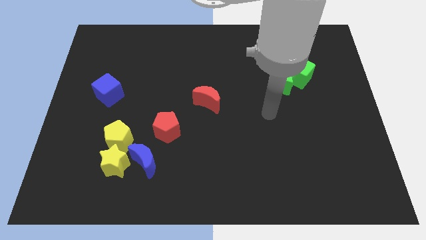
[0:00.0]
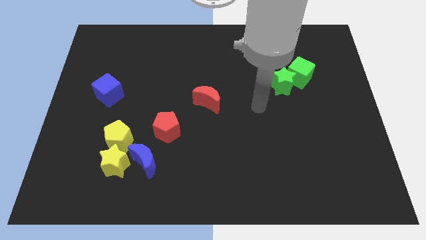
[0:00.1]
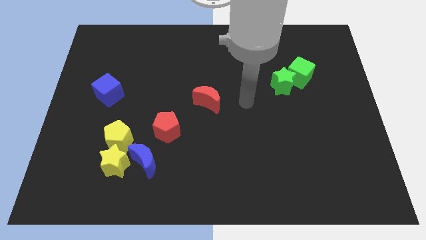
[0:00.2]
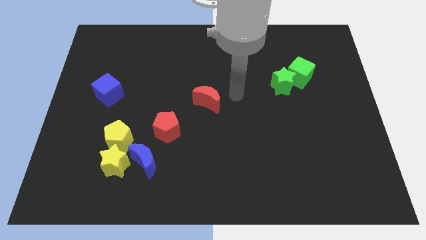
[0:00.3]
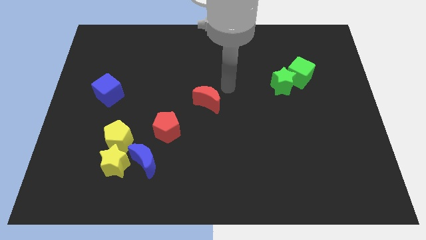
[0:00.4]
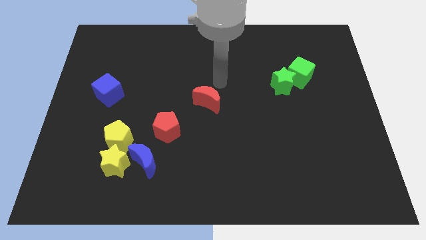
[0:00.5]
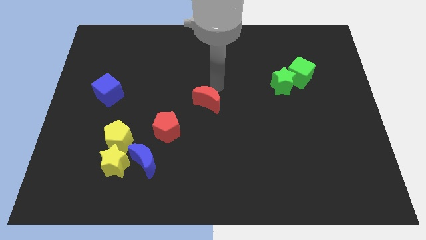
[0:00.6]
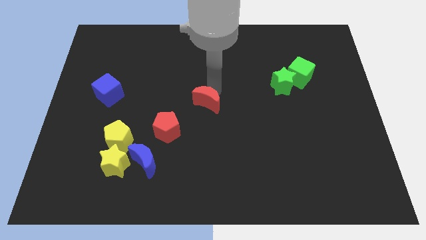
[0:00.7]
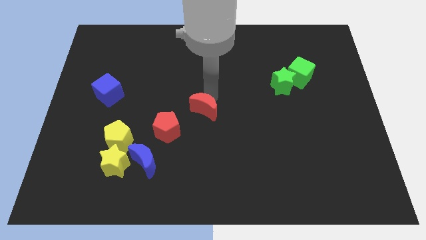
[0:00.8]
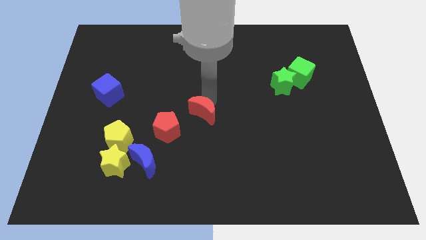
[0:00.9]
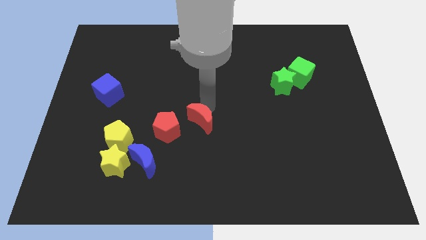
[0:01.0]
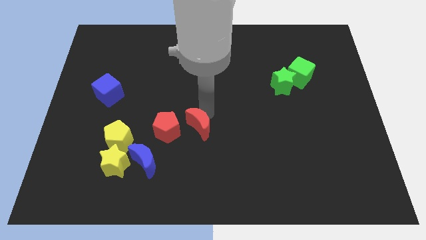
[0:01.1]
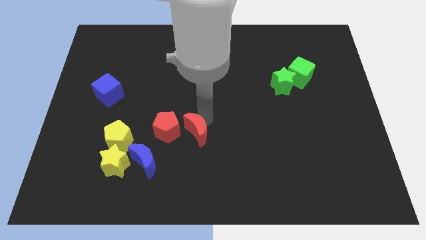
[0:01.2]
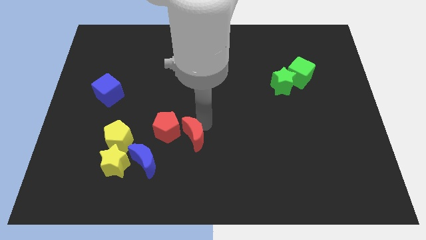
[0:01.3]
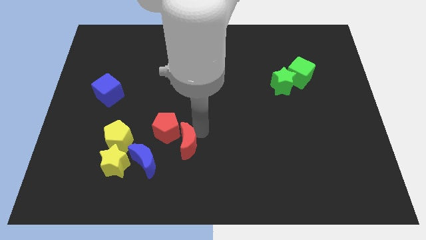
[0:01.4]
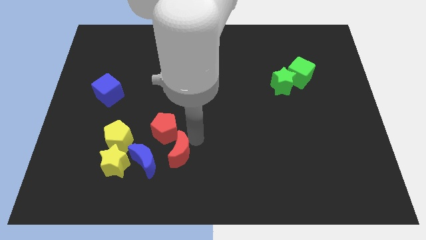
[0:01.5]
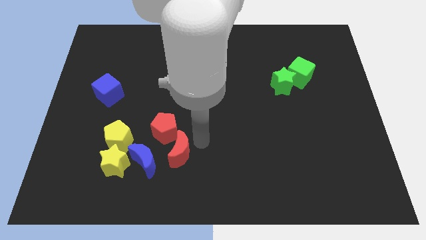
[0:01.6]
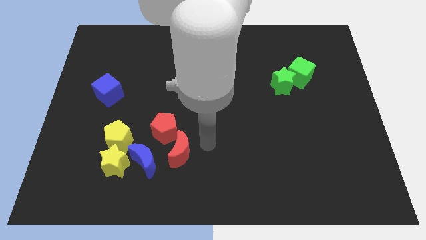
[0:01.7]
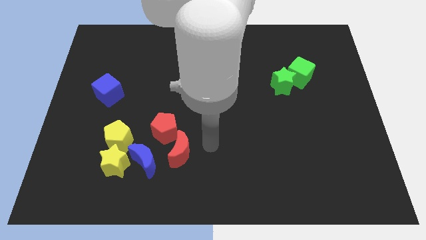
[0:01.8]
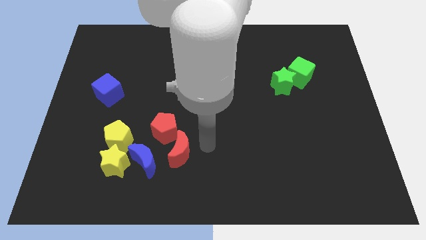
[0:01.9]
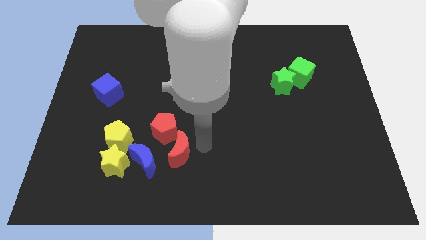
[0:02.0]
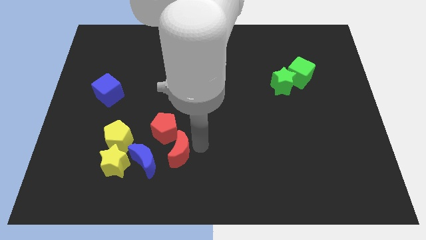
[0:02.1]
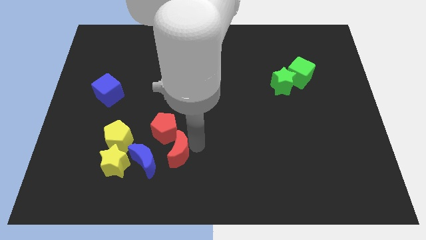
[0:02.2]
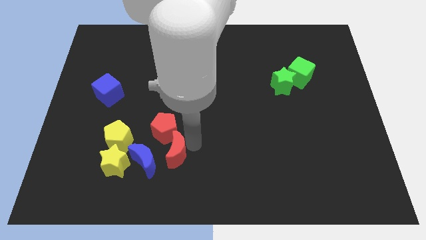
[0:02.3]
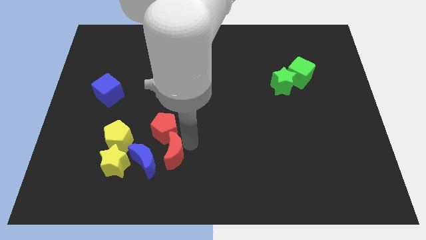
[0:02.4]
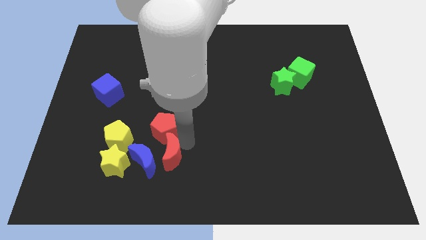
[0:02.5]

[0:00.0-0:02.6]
move the red moon close to the blue moon

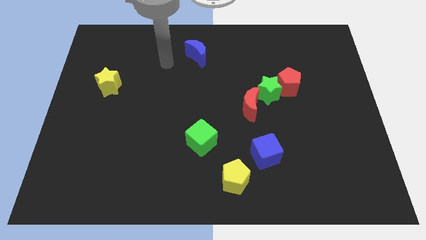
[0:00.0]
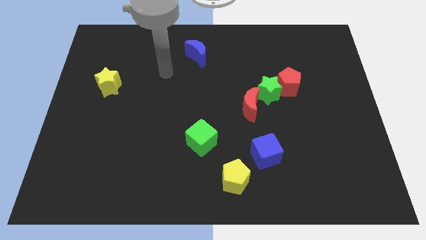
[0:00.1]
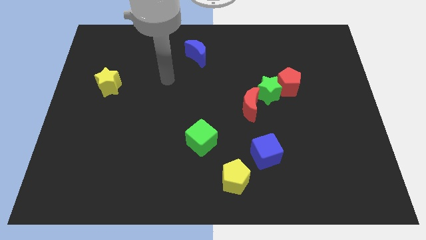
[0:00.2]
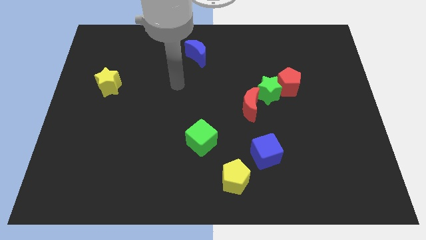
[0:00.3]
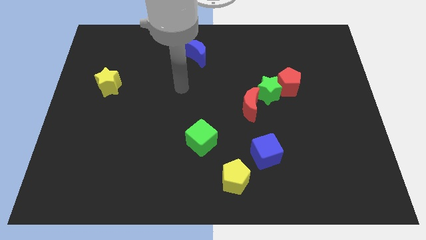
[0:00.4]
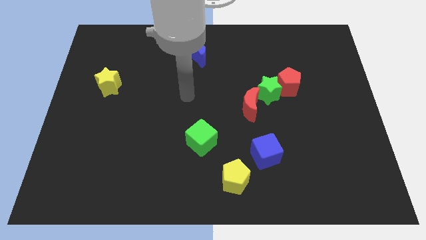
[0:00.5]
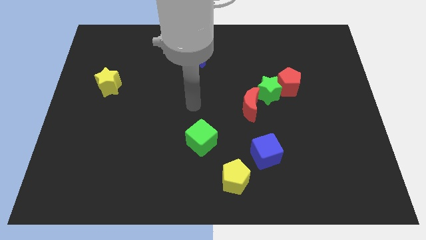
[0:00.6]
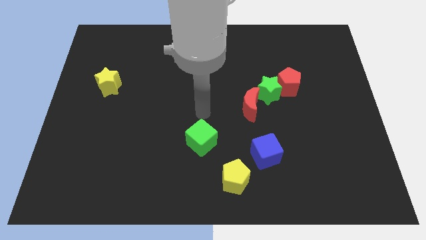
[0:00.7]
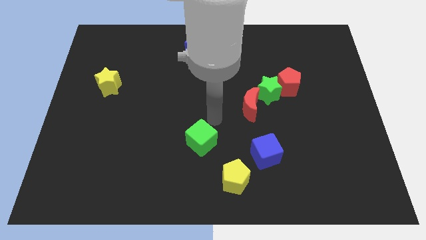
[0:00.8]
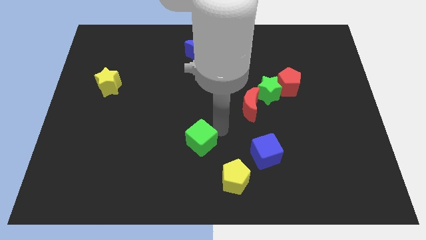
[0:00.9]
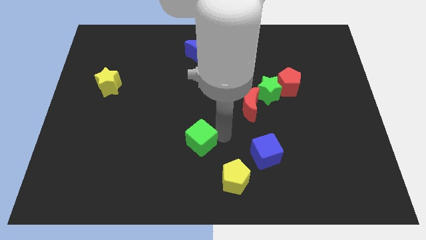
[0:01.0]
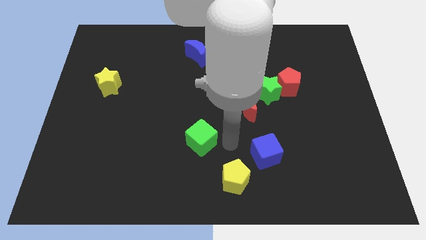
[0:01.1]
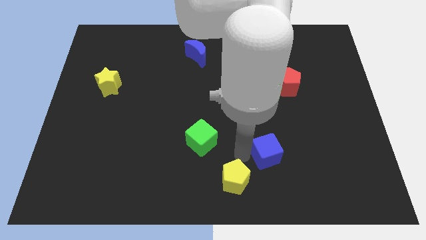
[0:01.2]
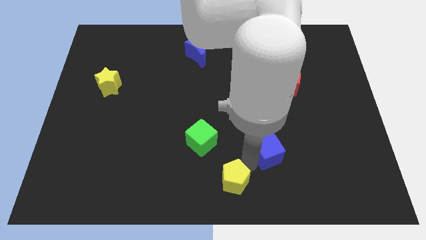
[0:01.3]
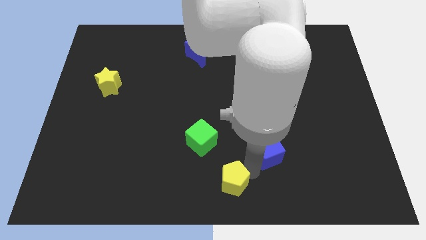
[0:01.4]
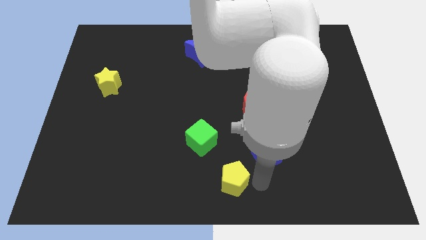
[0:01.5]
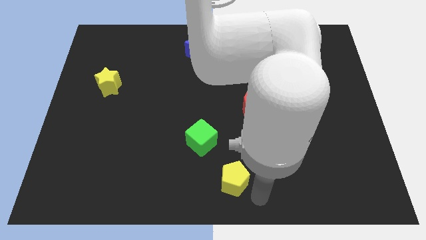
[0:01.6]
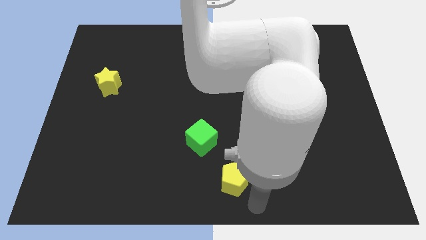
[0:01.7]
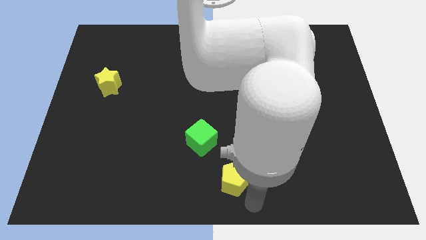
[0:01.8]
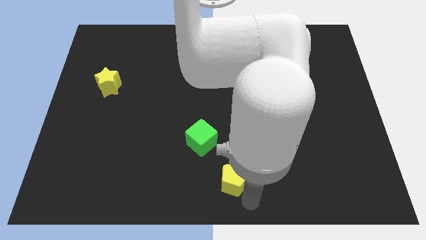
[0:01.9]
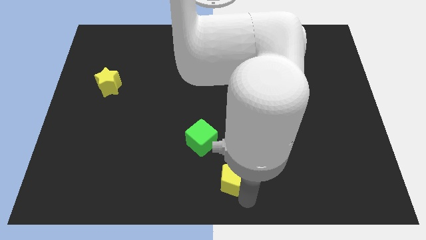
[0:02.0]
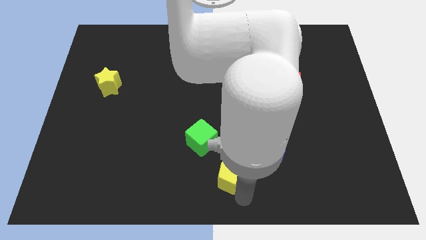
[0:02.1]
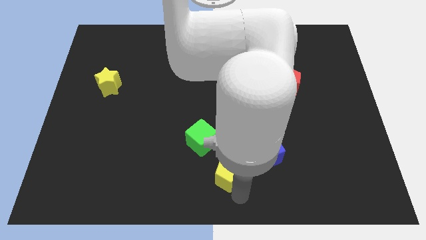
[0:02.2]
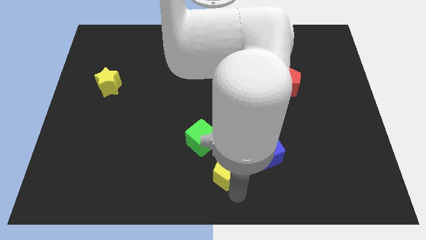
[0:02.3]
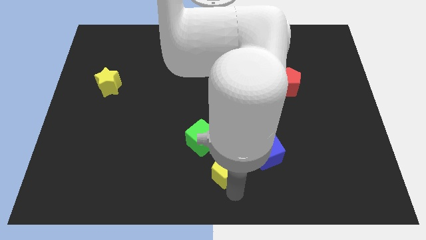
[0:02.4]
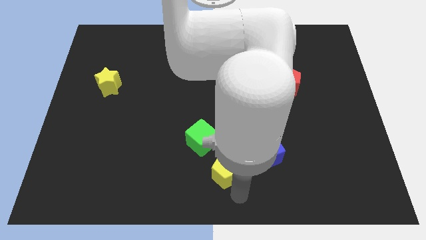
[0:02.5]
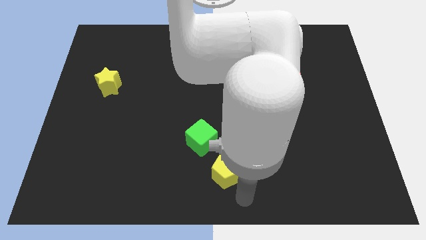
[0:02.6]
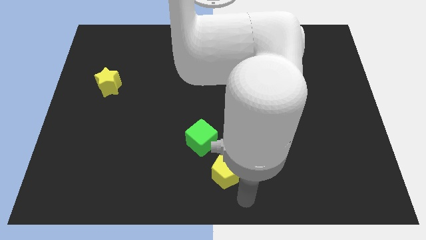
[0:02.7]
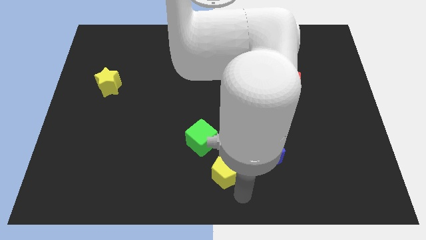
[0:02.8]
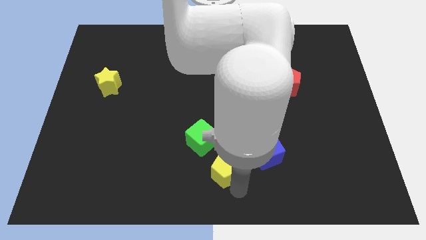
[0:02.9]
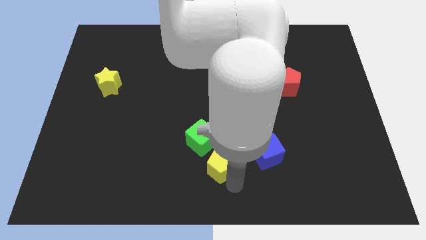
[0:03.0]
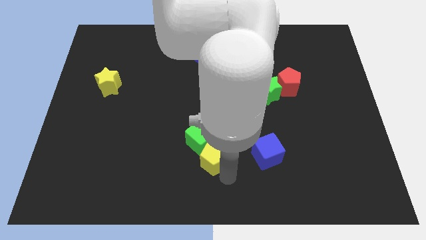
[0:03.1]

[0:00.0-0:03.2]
put the yellow pentagon to the green cube

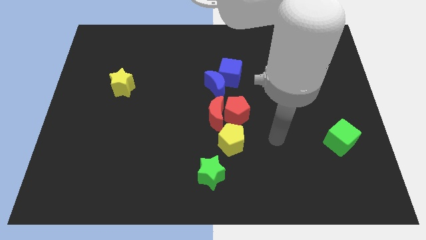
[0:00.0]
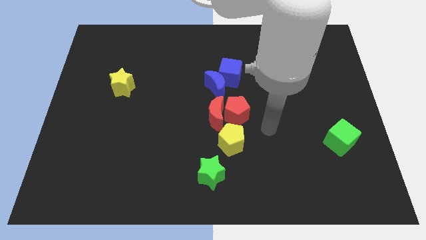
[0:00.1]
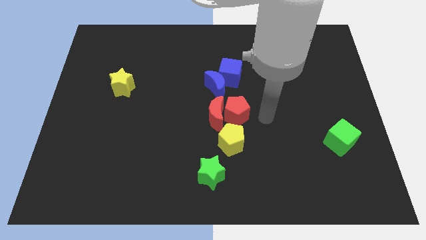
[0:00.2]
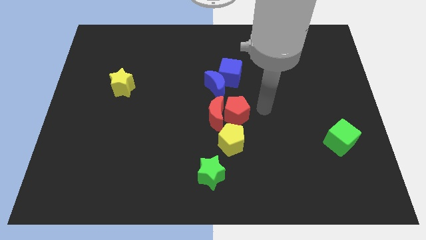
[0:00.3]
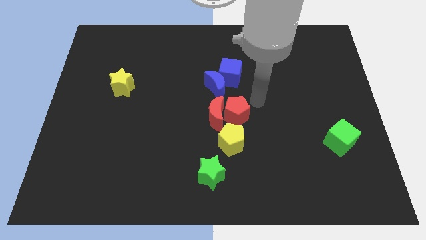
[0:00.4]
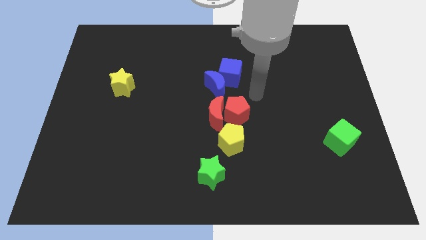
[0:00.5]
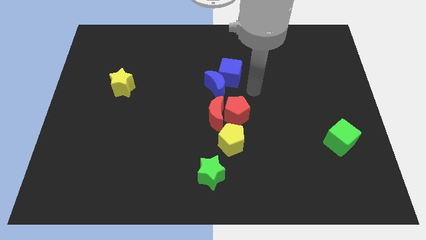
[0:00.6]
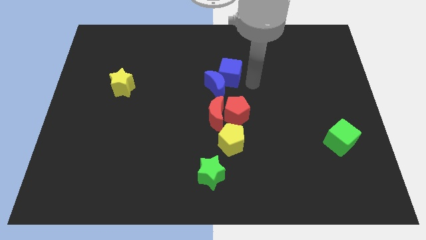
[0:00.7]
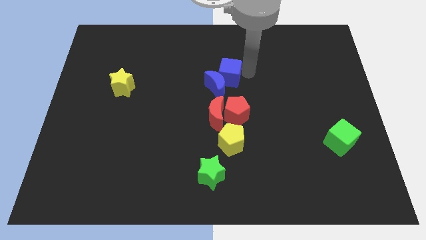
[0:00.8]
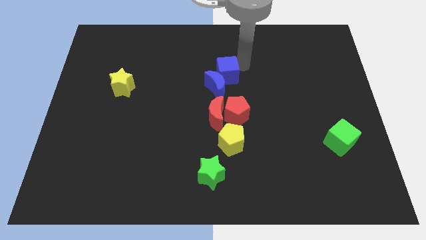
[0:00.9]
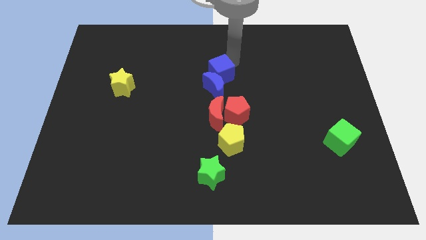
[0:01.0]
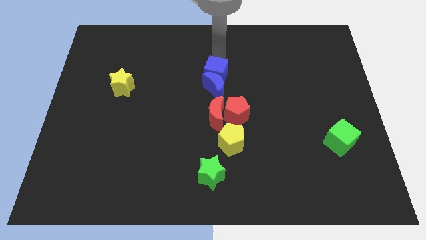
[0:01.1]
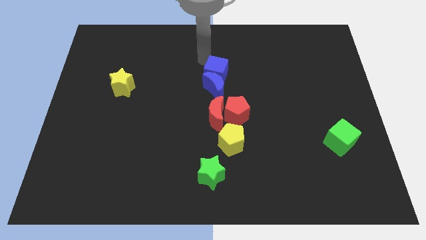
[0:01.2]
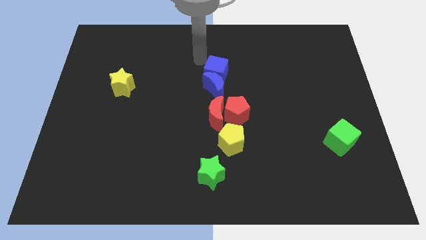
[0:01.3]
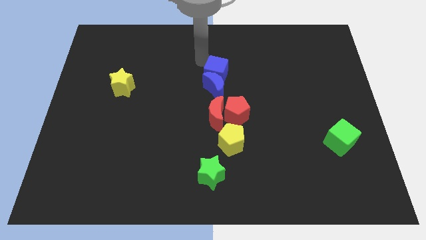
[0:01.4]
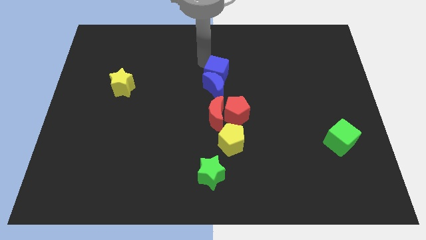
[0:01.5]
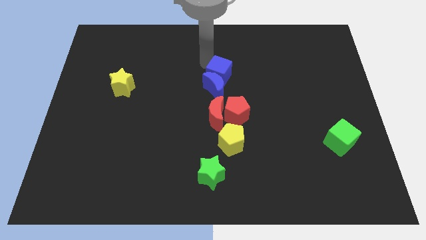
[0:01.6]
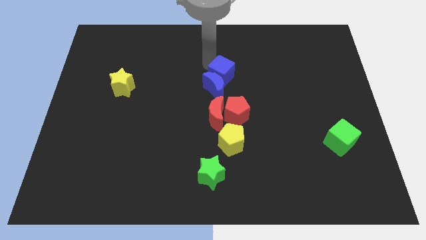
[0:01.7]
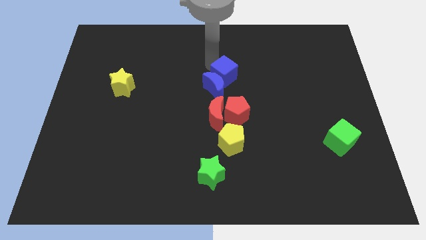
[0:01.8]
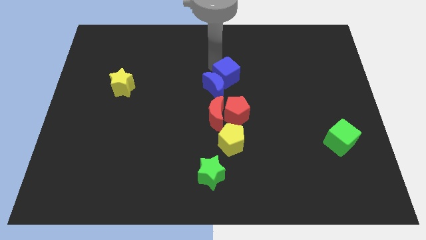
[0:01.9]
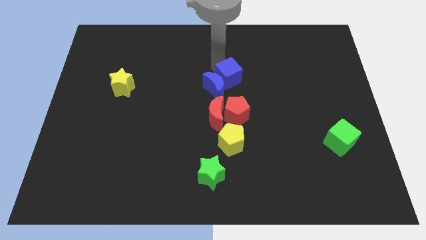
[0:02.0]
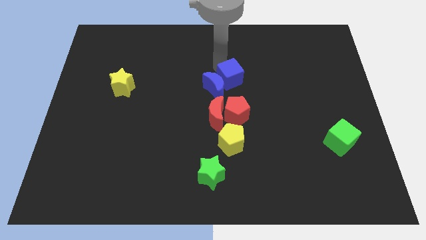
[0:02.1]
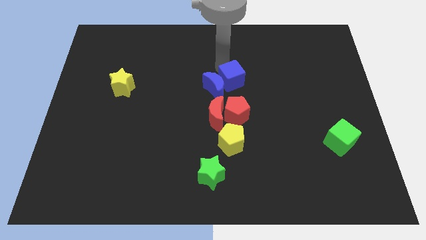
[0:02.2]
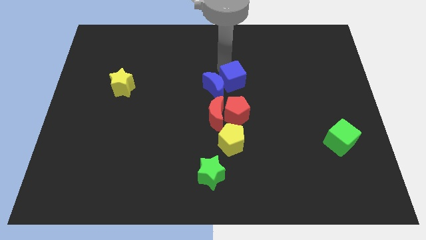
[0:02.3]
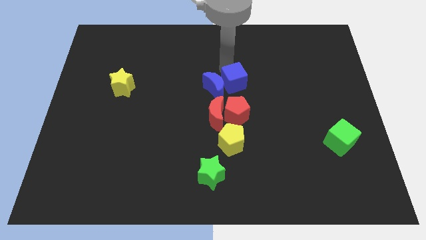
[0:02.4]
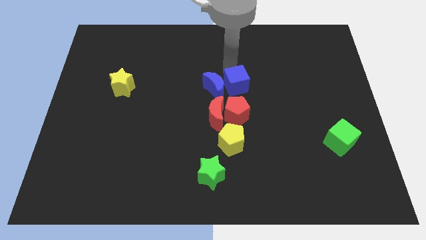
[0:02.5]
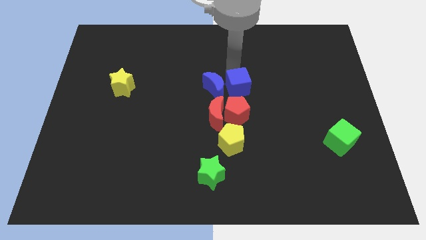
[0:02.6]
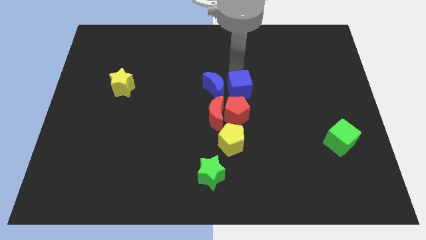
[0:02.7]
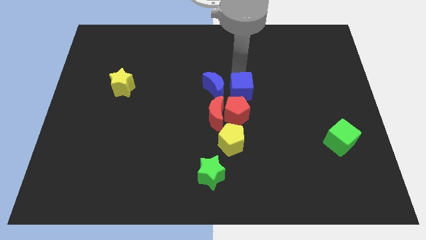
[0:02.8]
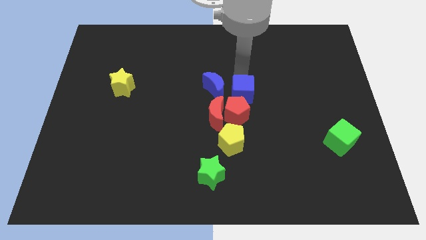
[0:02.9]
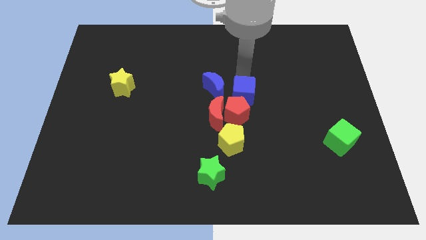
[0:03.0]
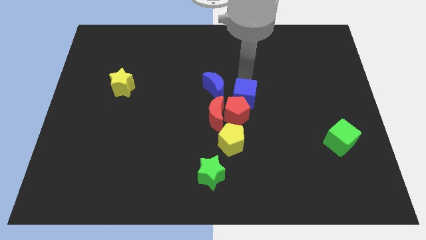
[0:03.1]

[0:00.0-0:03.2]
put the blue cube to the red pentagon
